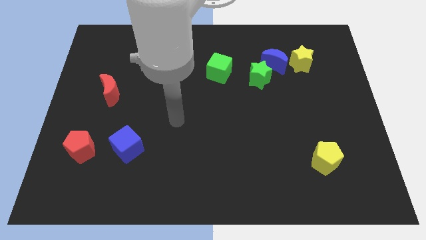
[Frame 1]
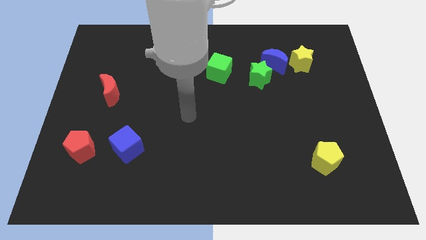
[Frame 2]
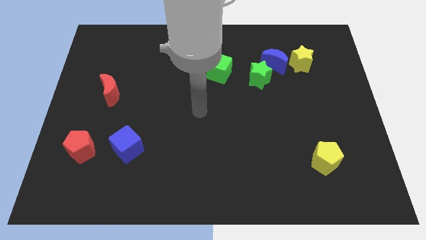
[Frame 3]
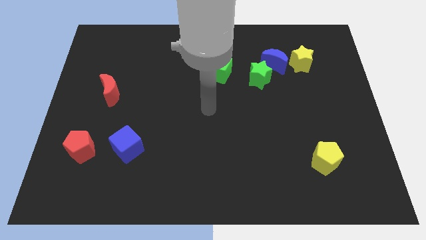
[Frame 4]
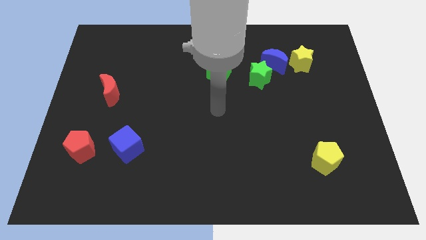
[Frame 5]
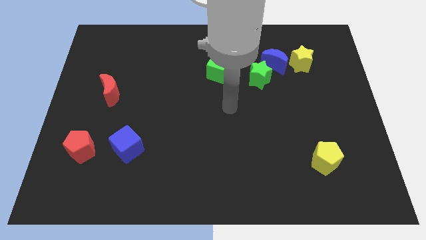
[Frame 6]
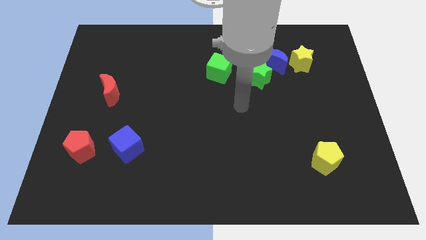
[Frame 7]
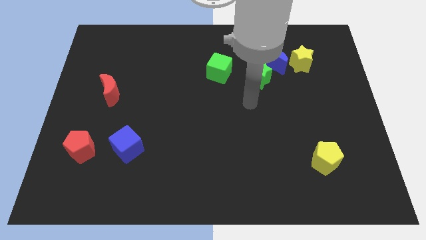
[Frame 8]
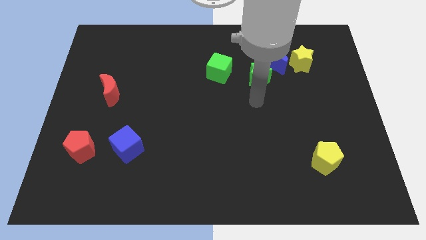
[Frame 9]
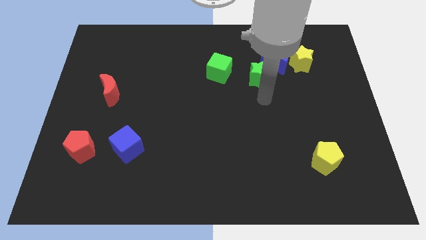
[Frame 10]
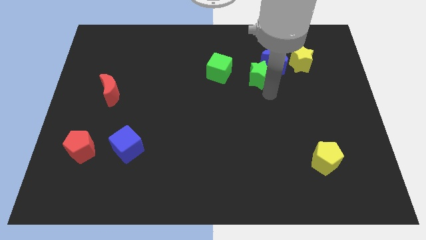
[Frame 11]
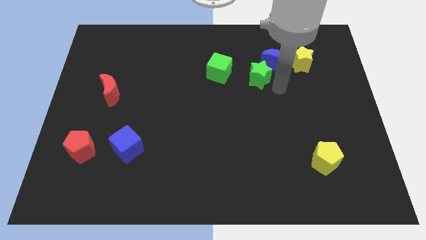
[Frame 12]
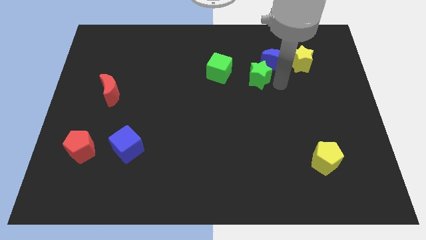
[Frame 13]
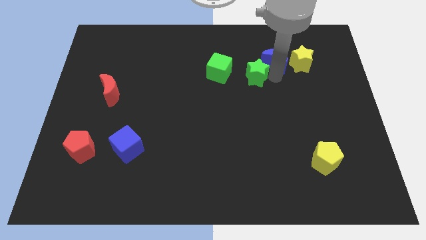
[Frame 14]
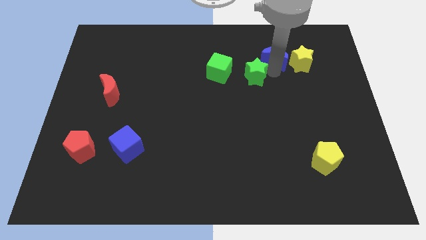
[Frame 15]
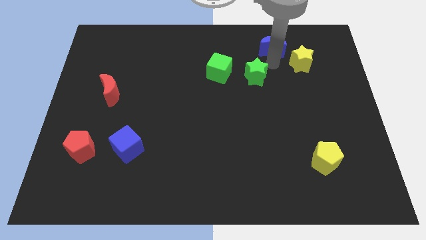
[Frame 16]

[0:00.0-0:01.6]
pull the green star apart from the blue moon

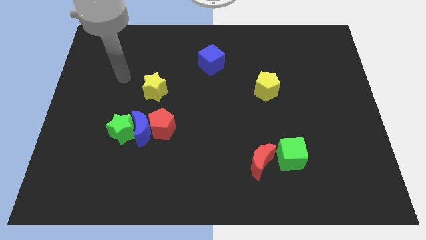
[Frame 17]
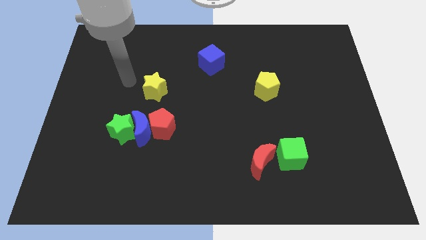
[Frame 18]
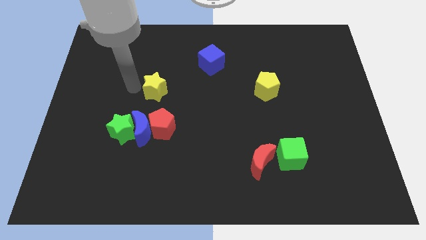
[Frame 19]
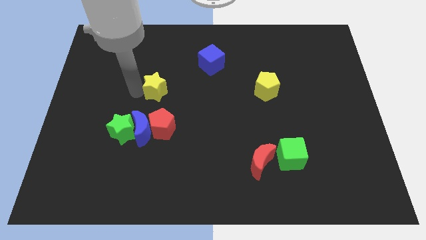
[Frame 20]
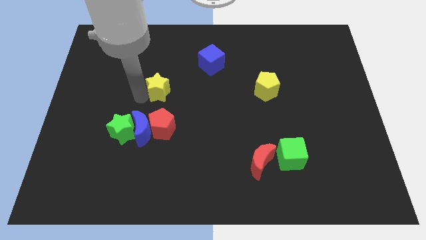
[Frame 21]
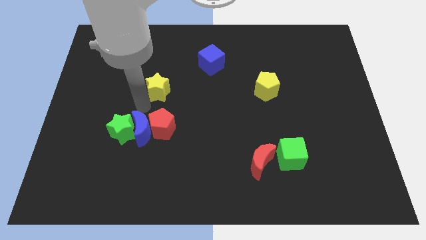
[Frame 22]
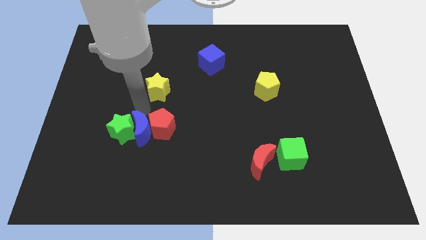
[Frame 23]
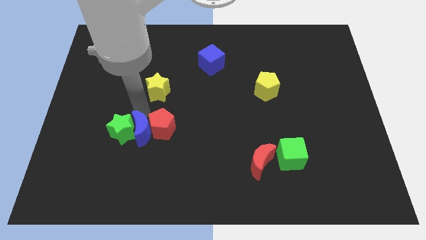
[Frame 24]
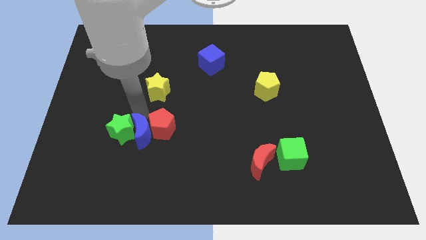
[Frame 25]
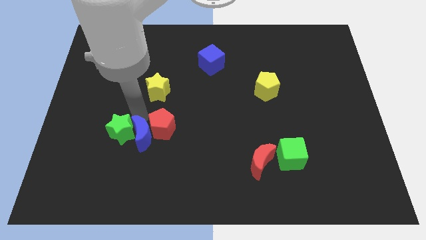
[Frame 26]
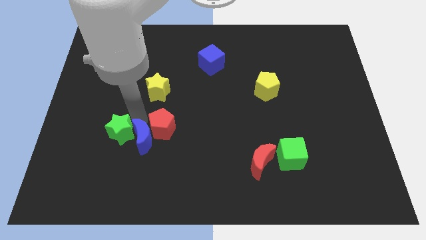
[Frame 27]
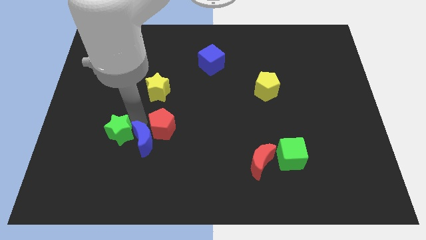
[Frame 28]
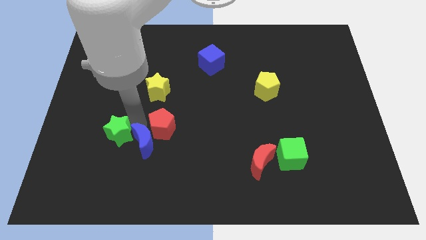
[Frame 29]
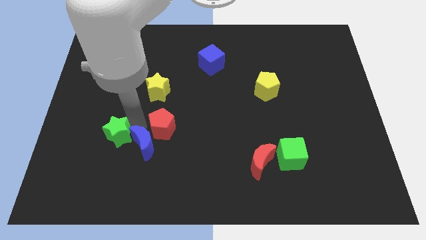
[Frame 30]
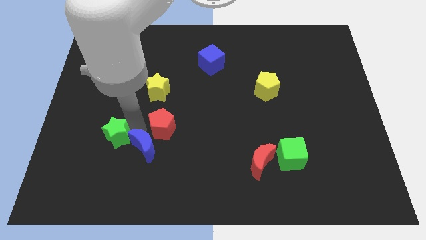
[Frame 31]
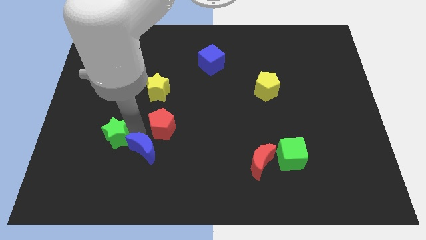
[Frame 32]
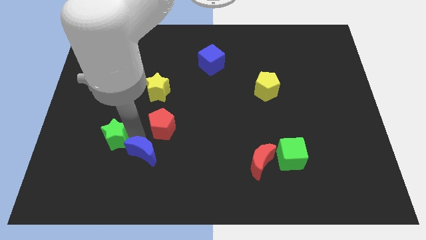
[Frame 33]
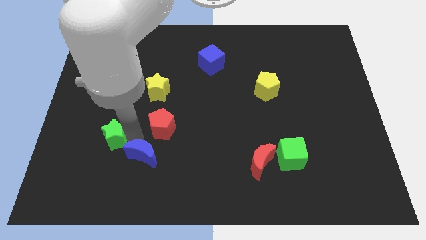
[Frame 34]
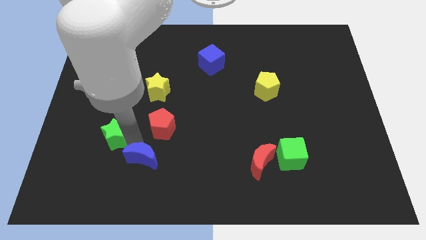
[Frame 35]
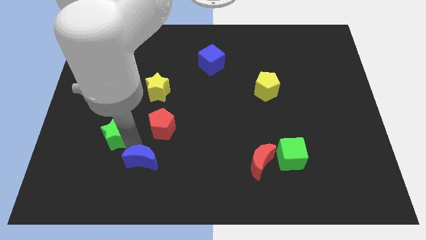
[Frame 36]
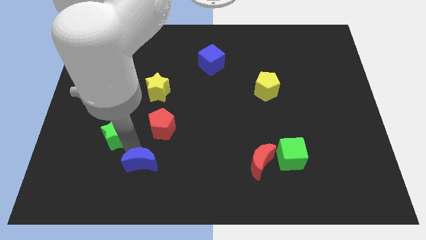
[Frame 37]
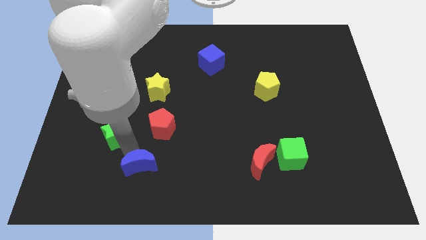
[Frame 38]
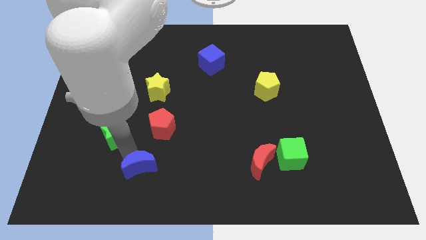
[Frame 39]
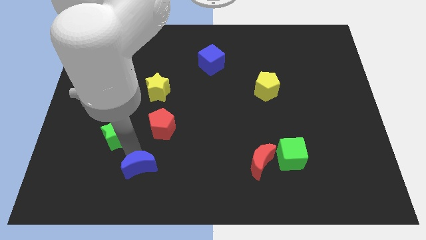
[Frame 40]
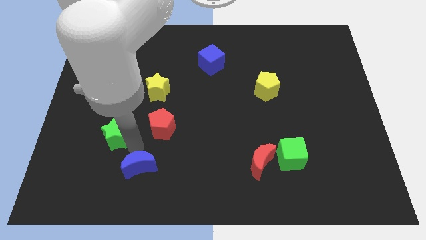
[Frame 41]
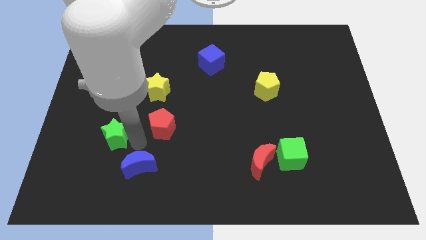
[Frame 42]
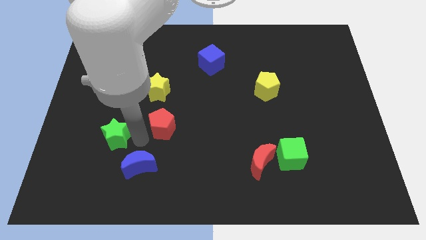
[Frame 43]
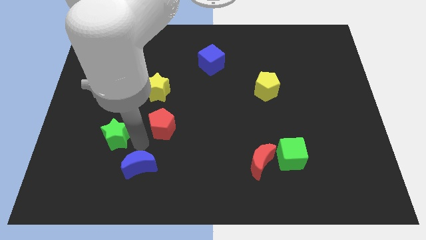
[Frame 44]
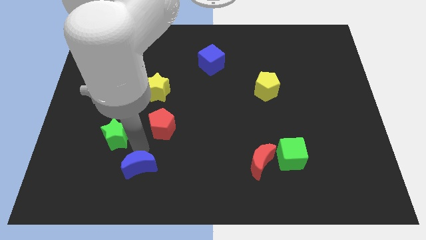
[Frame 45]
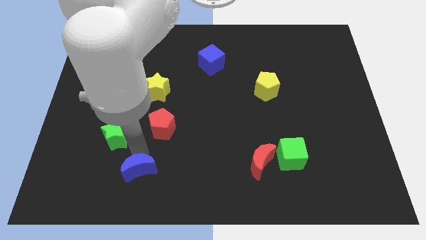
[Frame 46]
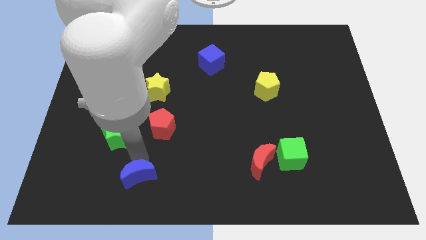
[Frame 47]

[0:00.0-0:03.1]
separate the blue moon from the red pentagon and green star

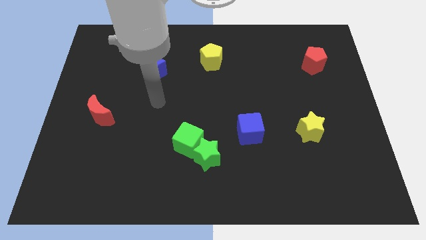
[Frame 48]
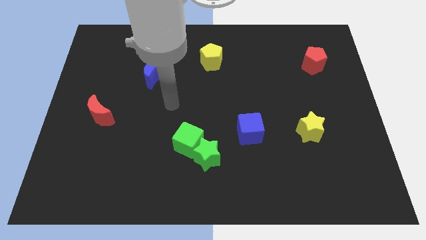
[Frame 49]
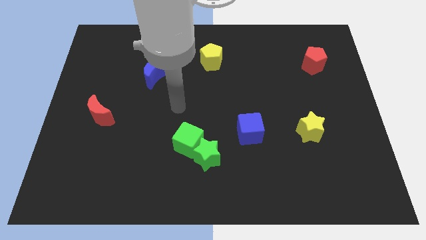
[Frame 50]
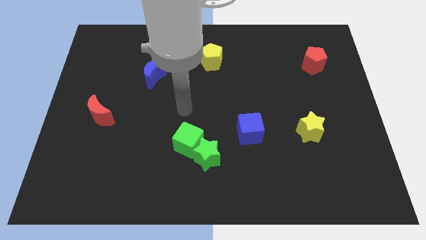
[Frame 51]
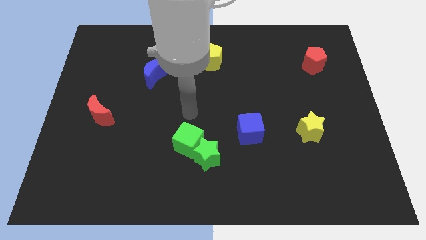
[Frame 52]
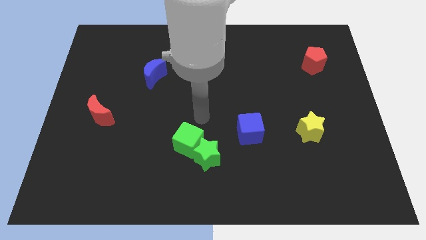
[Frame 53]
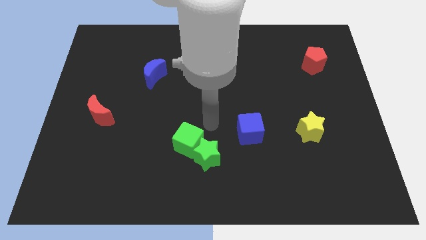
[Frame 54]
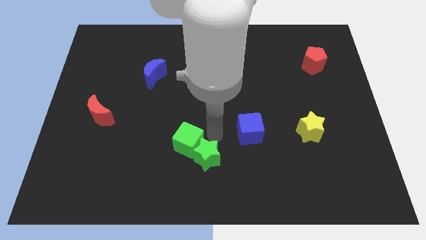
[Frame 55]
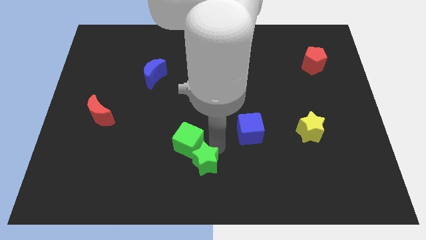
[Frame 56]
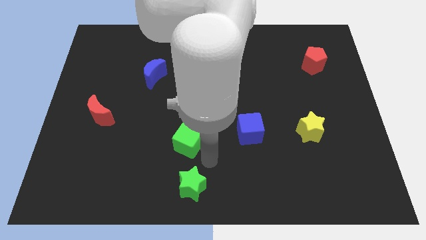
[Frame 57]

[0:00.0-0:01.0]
move the green cube away from the green star

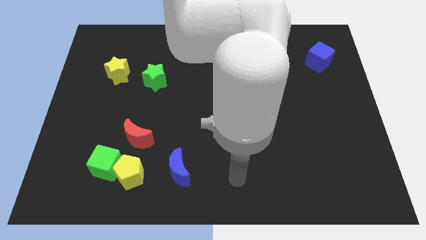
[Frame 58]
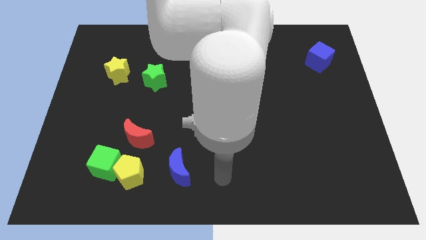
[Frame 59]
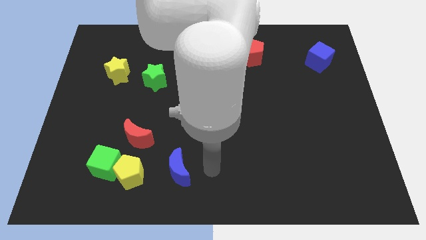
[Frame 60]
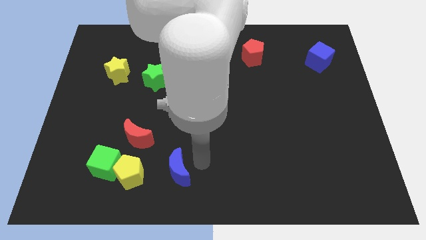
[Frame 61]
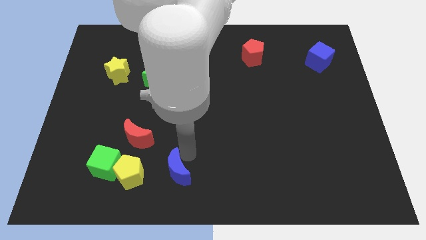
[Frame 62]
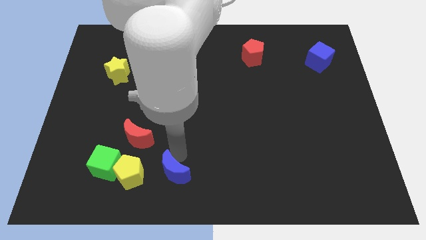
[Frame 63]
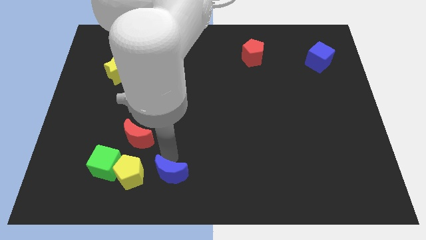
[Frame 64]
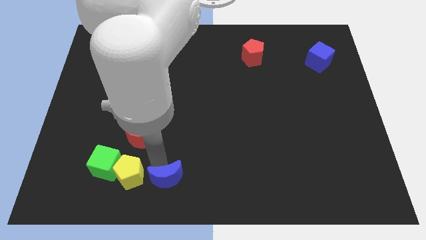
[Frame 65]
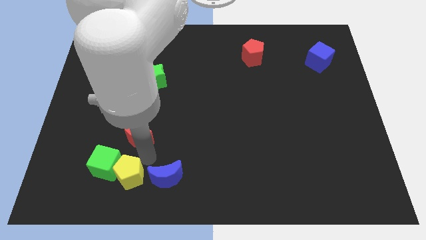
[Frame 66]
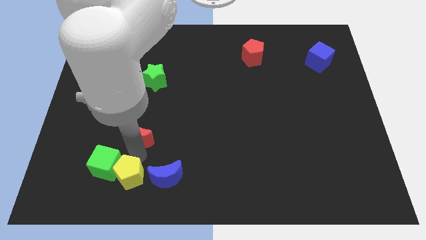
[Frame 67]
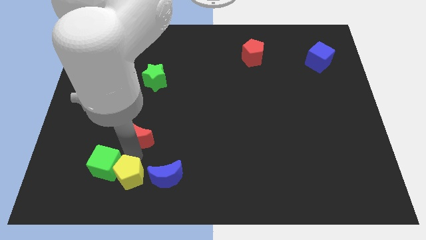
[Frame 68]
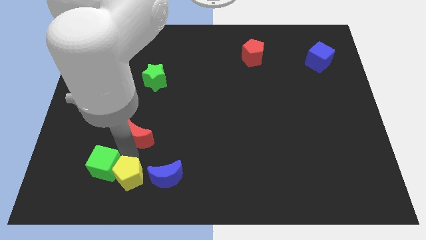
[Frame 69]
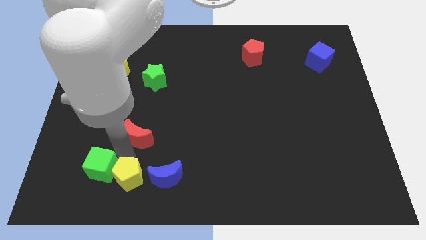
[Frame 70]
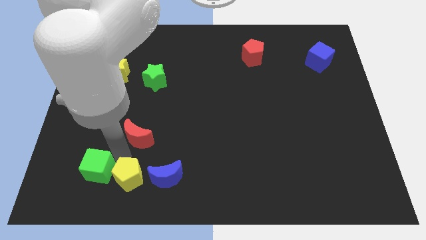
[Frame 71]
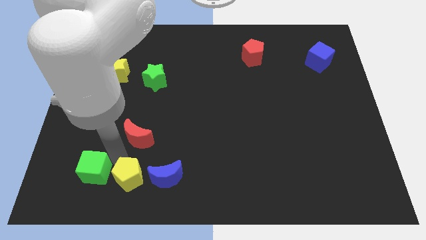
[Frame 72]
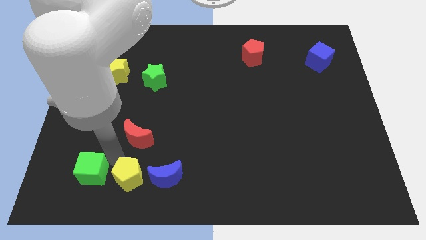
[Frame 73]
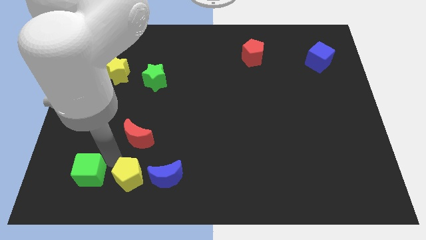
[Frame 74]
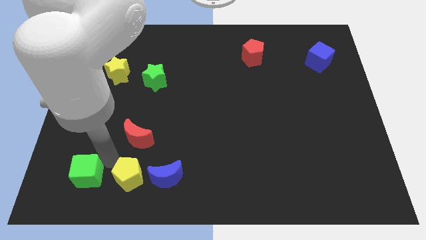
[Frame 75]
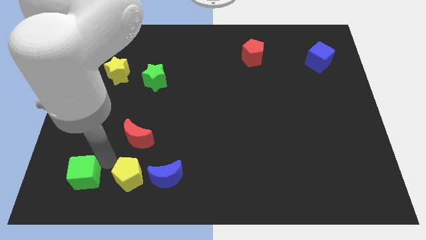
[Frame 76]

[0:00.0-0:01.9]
move the green cube away from the yellow pentagon and red moon

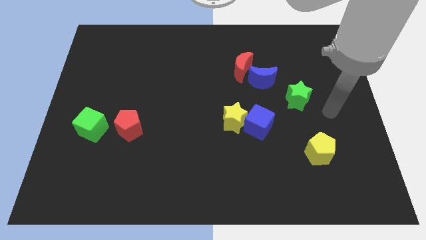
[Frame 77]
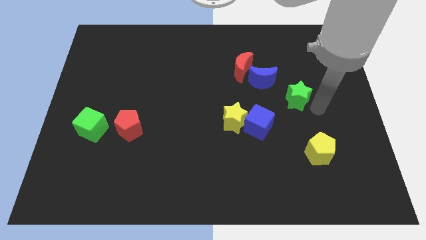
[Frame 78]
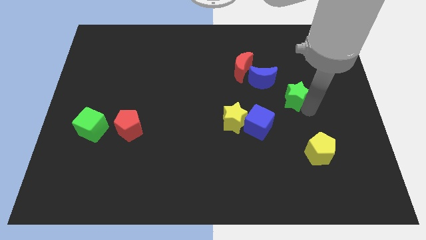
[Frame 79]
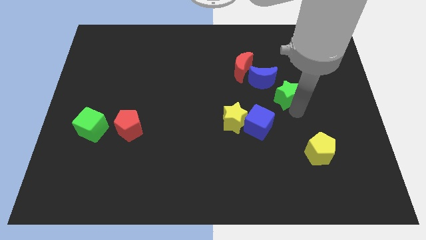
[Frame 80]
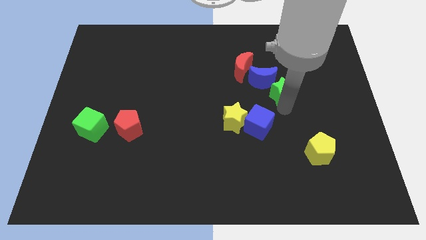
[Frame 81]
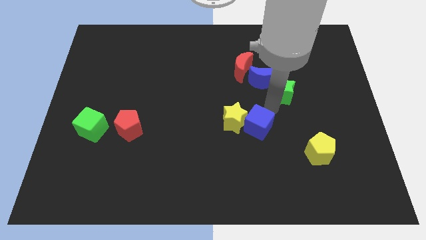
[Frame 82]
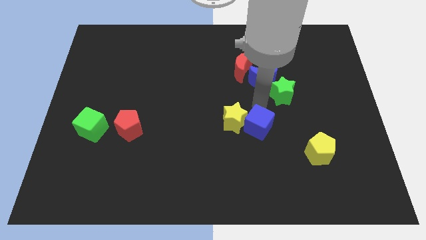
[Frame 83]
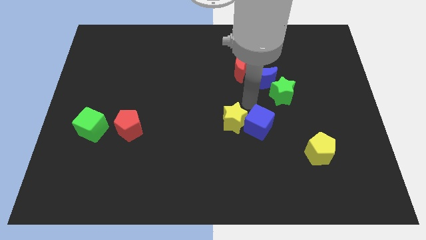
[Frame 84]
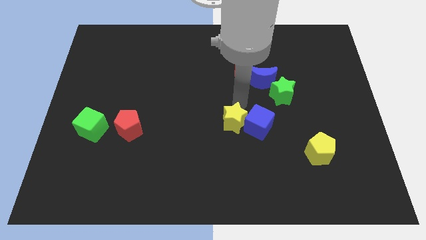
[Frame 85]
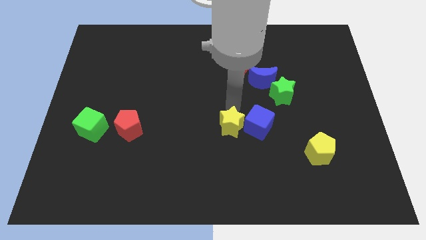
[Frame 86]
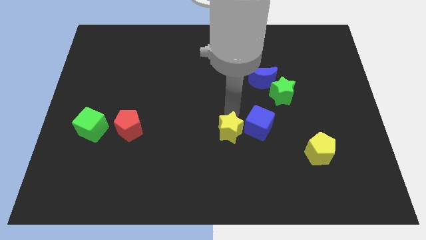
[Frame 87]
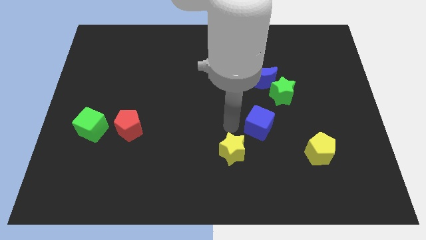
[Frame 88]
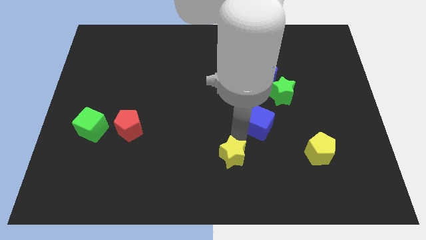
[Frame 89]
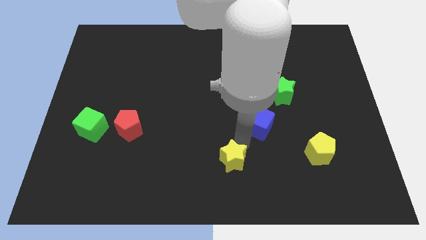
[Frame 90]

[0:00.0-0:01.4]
pull the blue cube apart from the yellow star

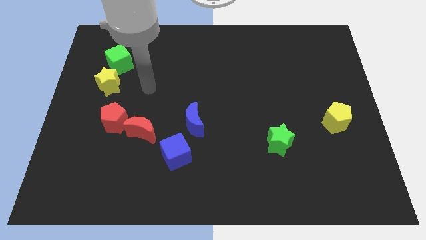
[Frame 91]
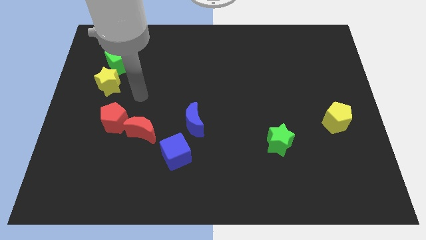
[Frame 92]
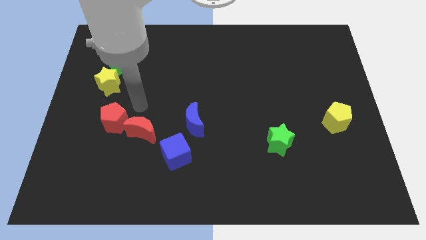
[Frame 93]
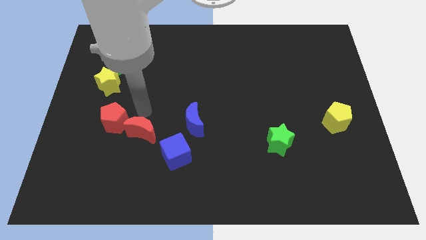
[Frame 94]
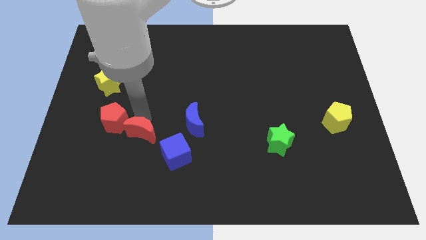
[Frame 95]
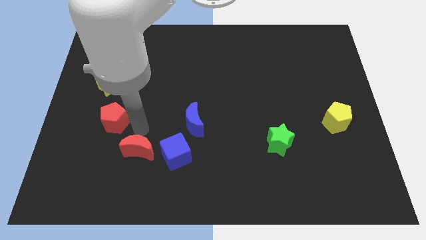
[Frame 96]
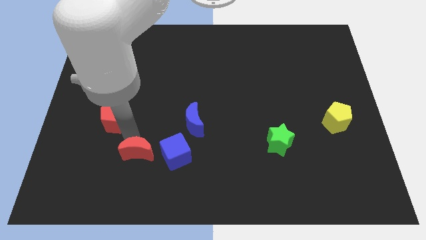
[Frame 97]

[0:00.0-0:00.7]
separate the red pentagon from the red moon
